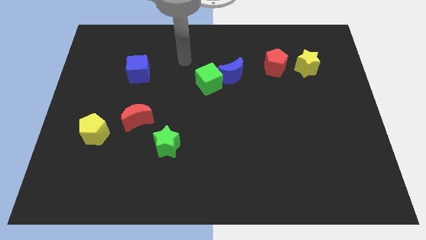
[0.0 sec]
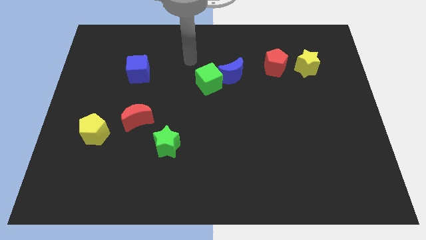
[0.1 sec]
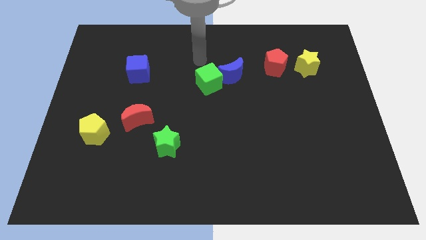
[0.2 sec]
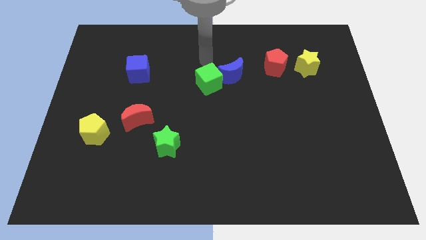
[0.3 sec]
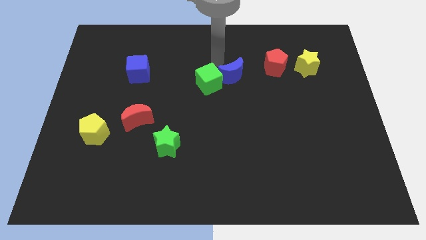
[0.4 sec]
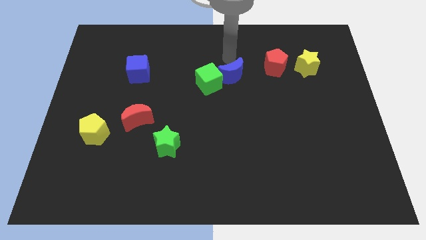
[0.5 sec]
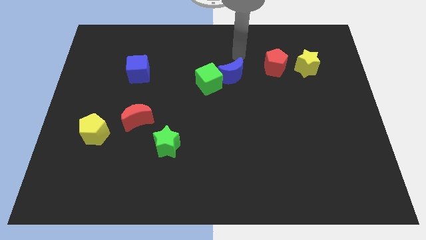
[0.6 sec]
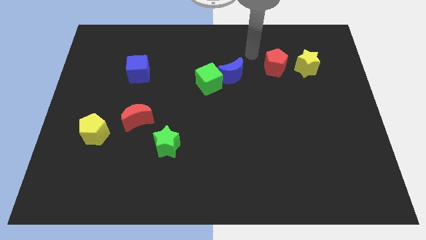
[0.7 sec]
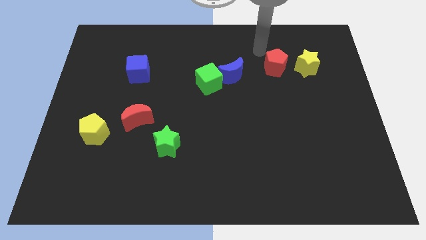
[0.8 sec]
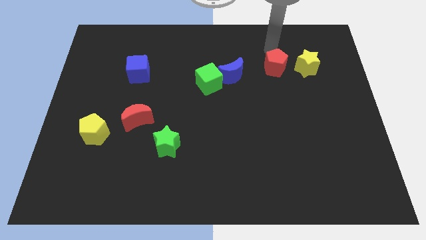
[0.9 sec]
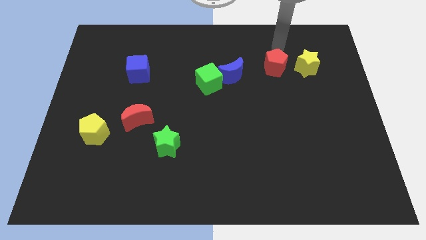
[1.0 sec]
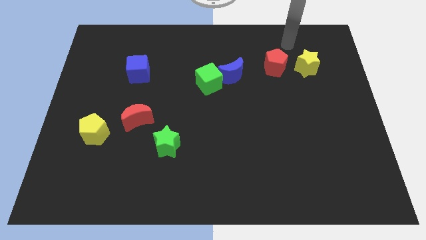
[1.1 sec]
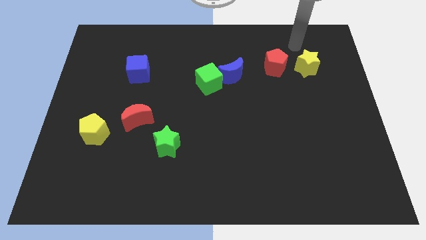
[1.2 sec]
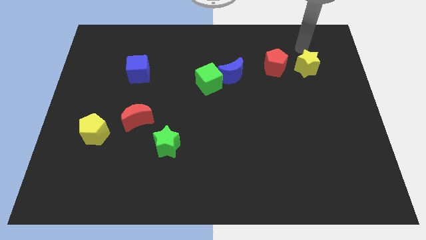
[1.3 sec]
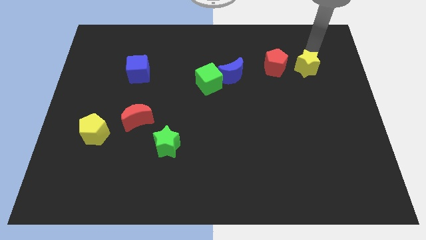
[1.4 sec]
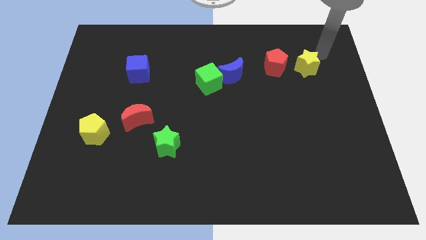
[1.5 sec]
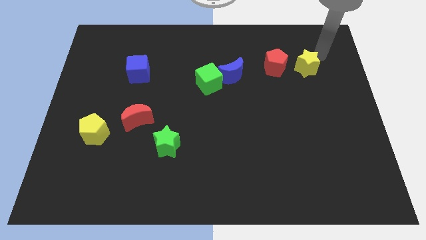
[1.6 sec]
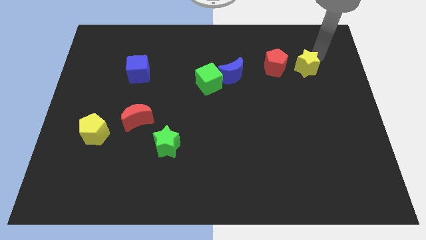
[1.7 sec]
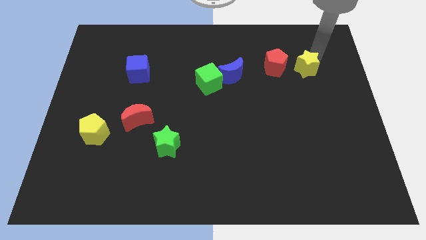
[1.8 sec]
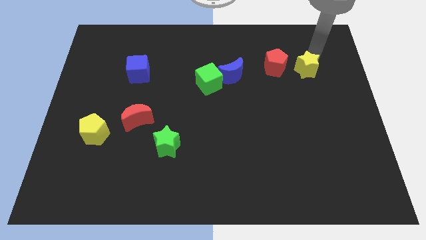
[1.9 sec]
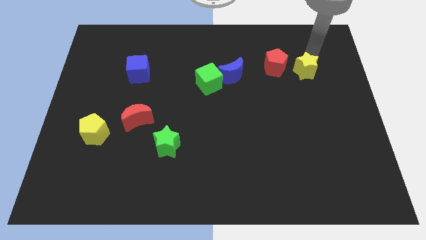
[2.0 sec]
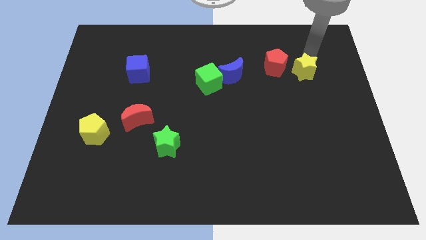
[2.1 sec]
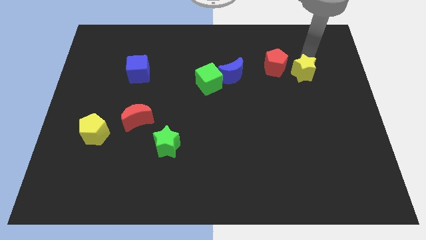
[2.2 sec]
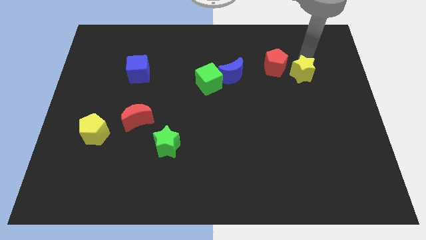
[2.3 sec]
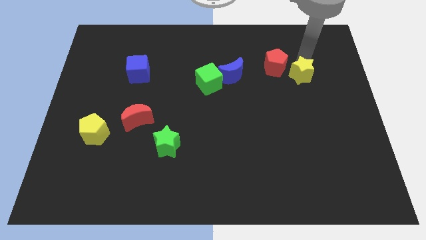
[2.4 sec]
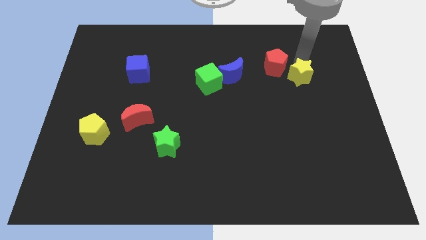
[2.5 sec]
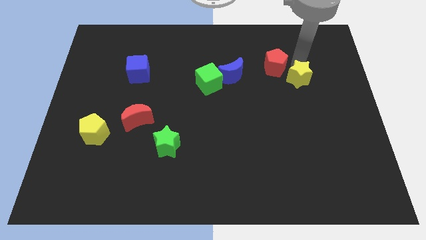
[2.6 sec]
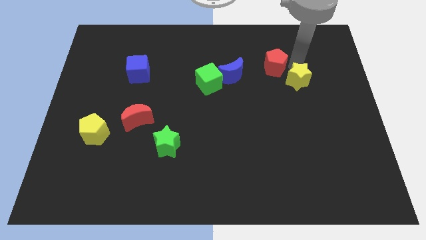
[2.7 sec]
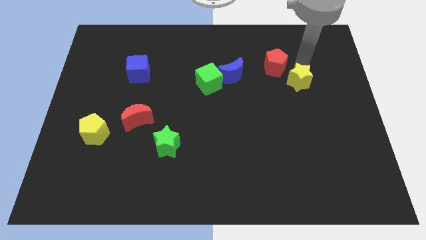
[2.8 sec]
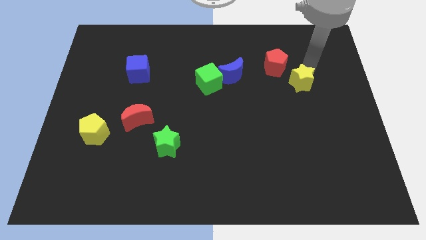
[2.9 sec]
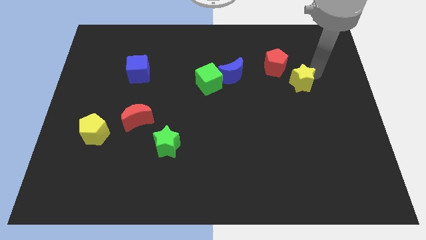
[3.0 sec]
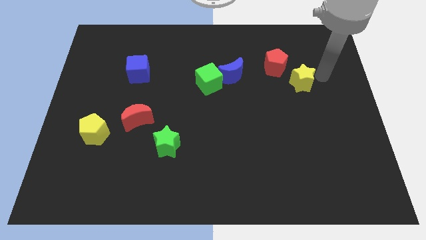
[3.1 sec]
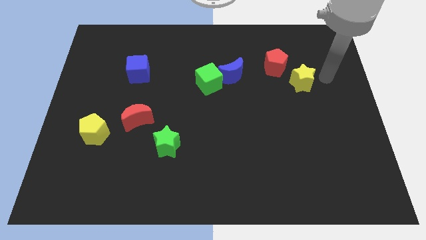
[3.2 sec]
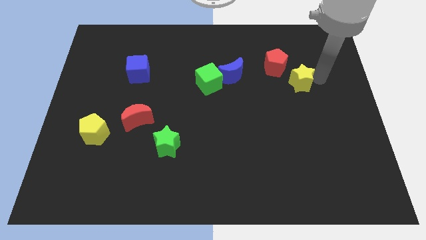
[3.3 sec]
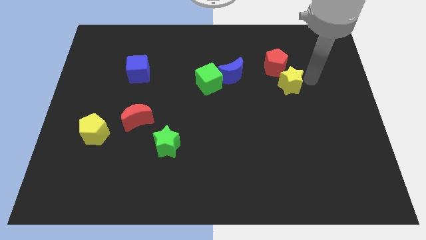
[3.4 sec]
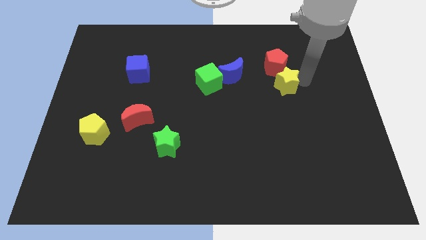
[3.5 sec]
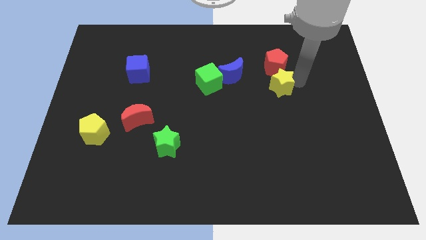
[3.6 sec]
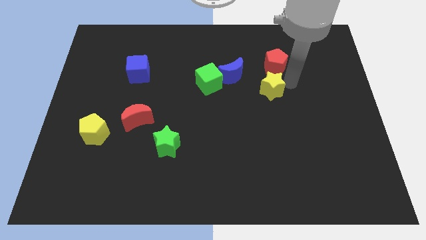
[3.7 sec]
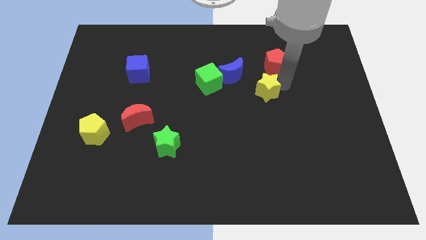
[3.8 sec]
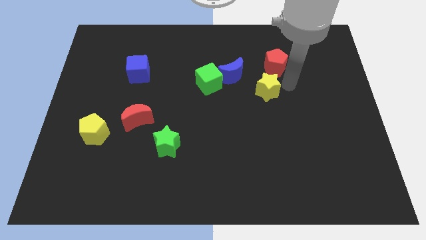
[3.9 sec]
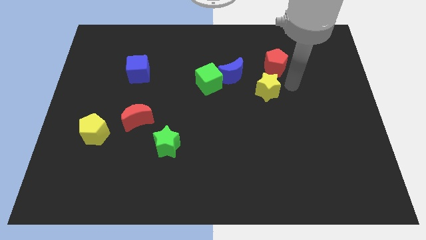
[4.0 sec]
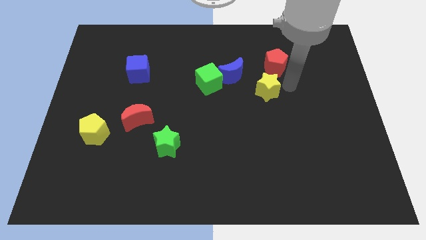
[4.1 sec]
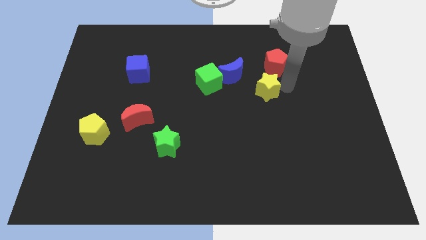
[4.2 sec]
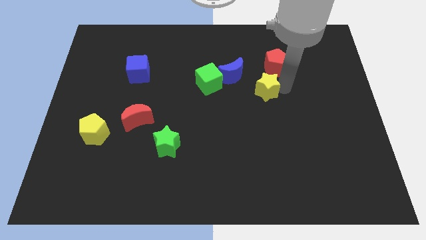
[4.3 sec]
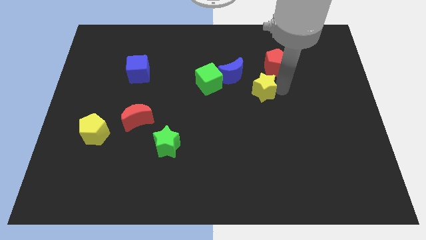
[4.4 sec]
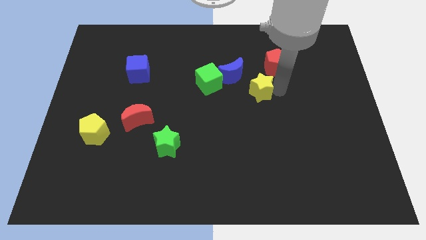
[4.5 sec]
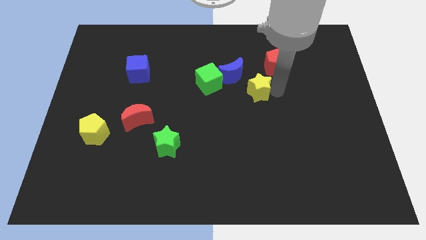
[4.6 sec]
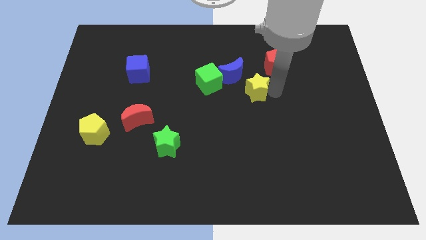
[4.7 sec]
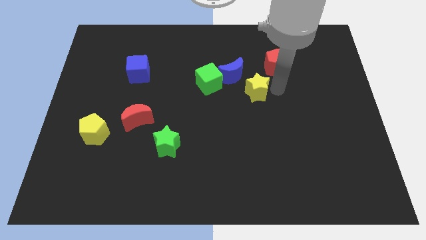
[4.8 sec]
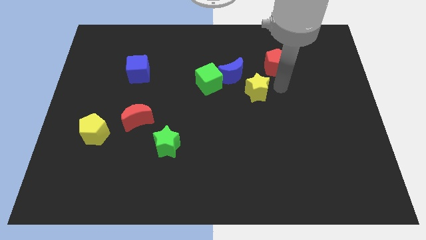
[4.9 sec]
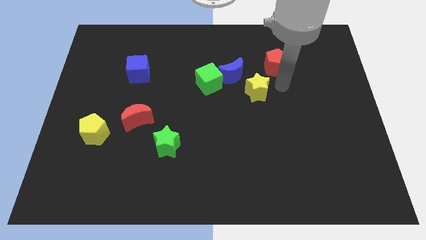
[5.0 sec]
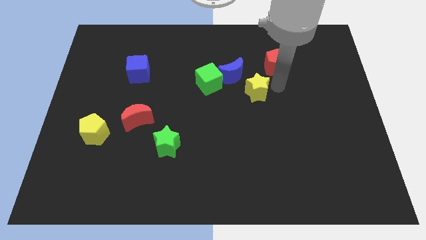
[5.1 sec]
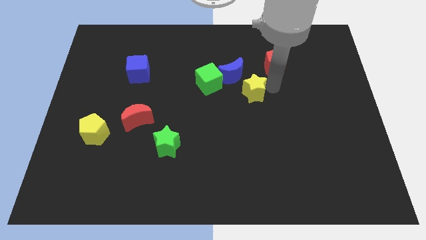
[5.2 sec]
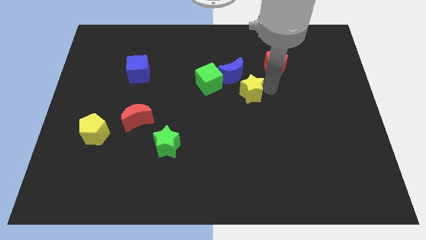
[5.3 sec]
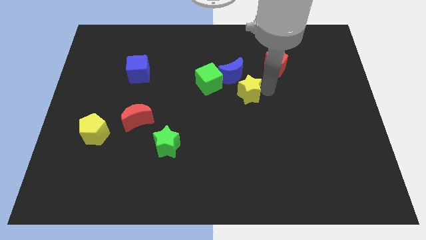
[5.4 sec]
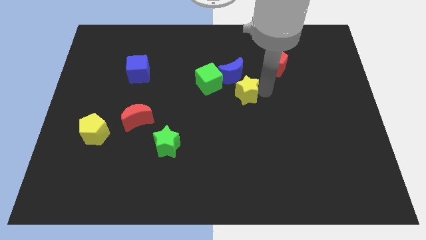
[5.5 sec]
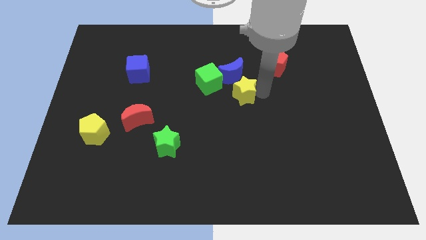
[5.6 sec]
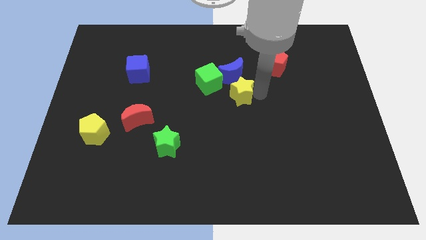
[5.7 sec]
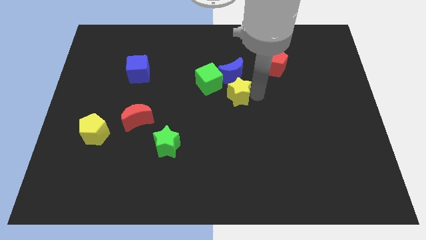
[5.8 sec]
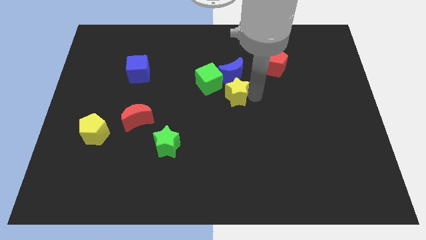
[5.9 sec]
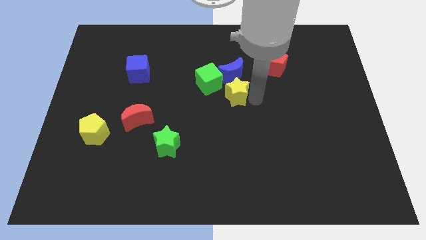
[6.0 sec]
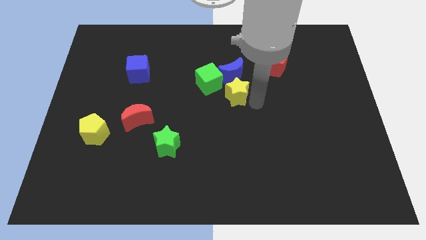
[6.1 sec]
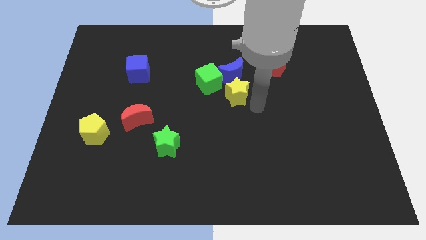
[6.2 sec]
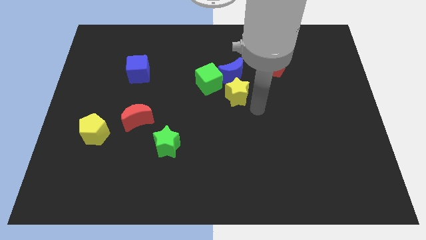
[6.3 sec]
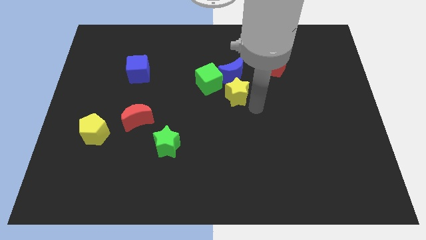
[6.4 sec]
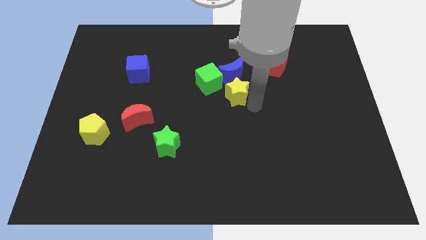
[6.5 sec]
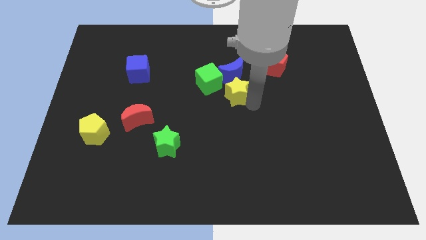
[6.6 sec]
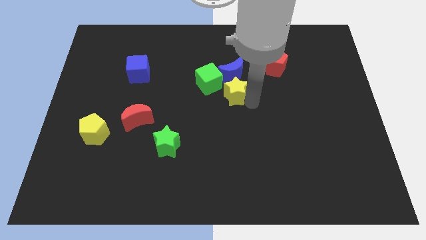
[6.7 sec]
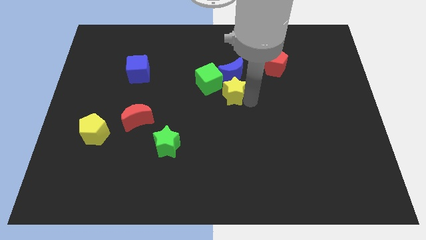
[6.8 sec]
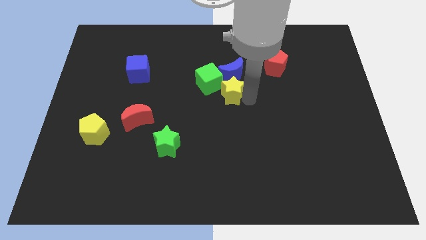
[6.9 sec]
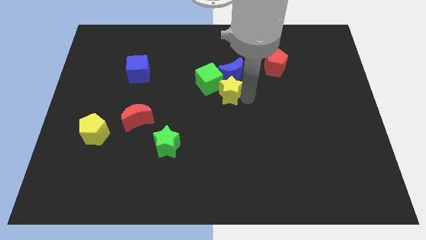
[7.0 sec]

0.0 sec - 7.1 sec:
slide the yellow star next to the green cube
